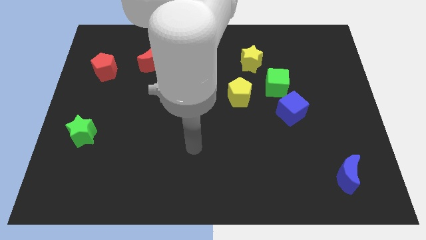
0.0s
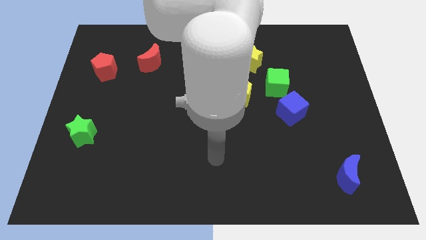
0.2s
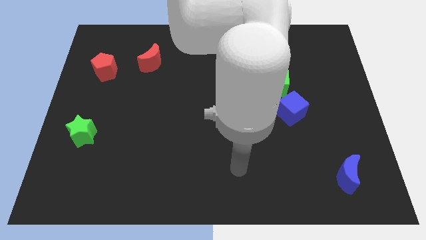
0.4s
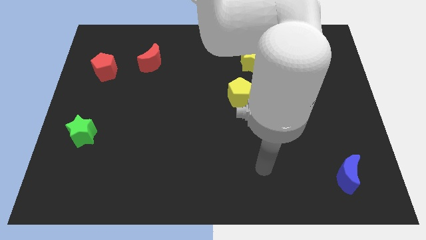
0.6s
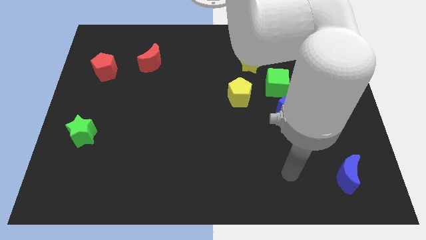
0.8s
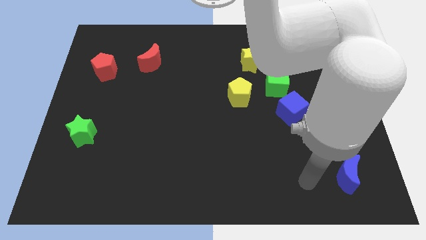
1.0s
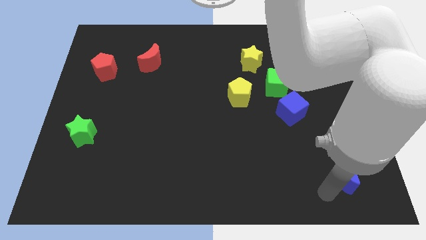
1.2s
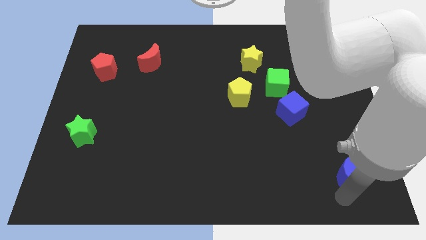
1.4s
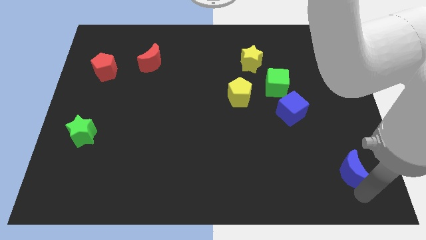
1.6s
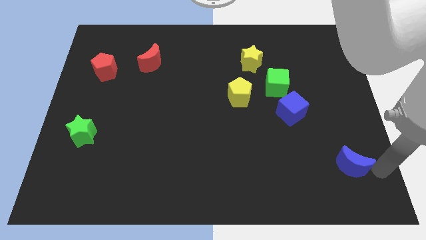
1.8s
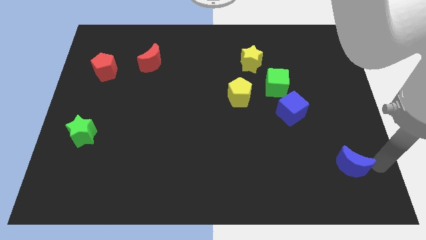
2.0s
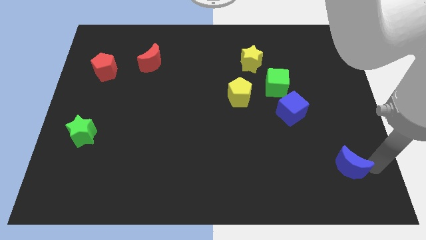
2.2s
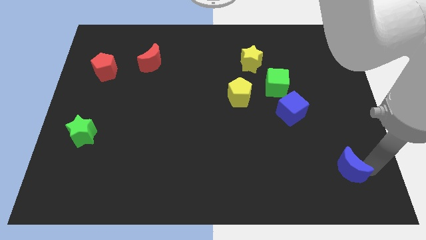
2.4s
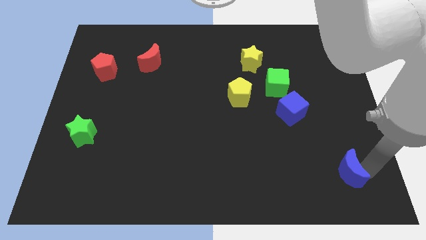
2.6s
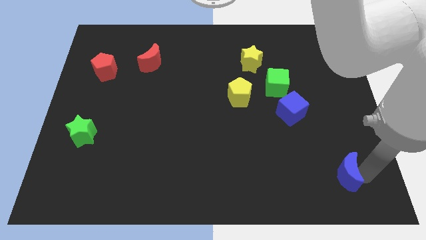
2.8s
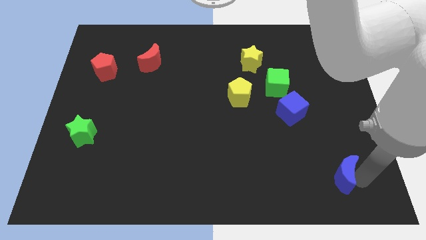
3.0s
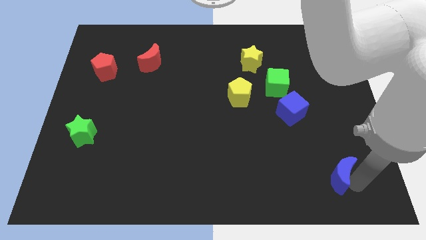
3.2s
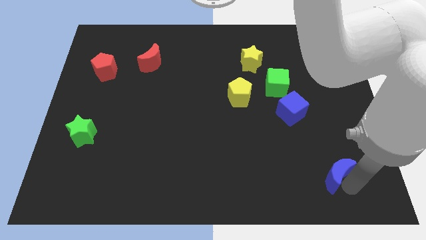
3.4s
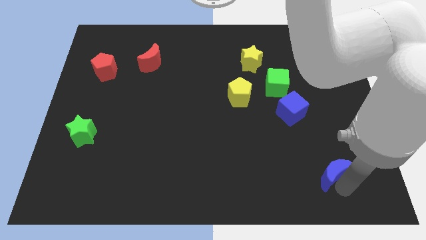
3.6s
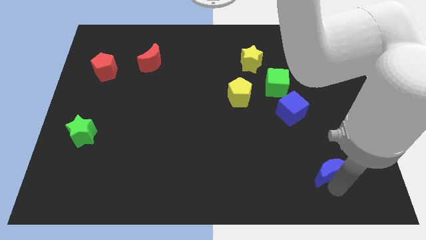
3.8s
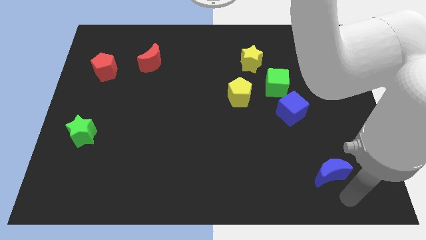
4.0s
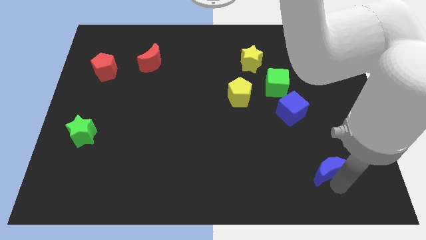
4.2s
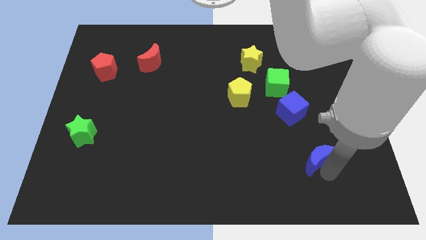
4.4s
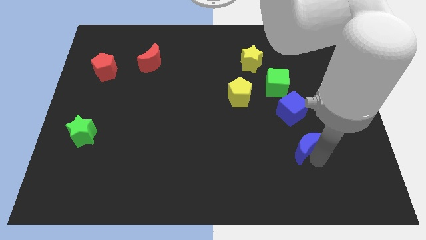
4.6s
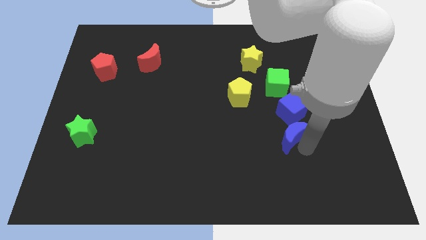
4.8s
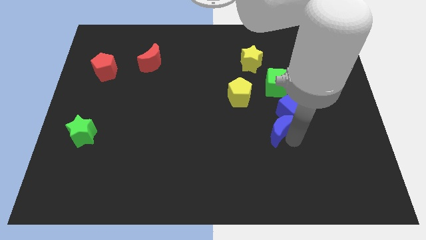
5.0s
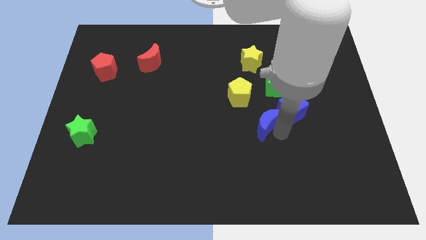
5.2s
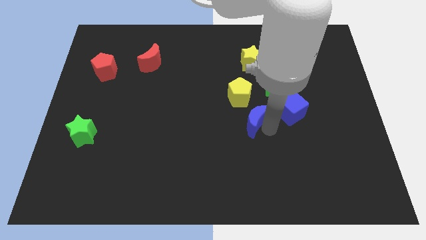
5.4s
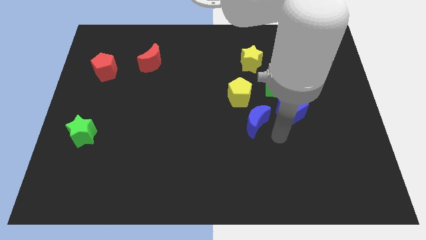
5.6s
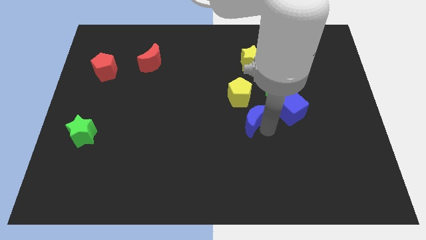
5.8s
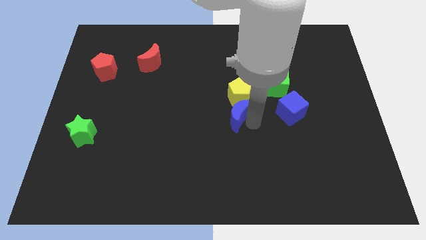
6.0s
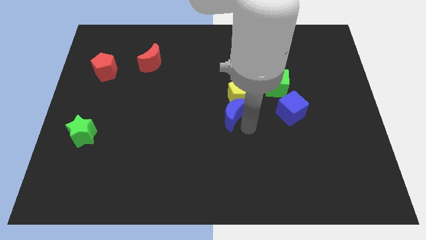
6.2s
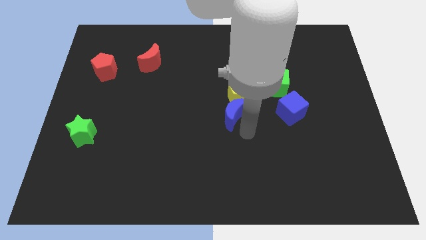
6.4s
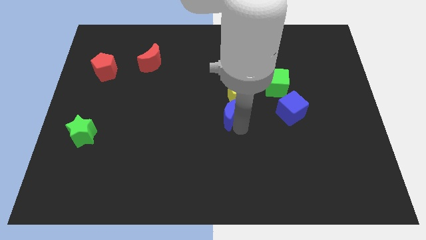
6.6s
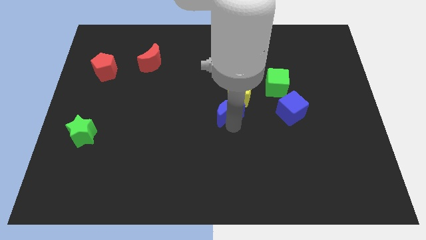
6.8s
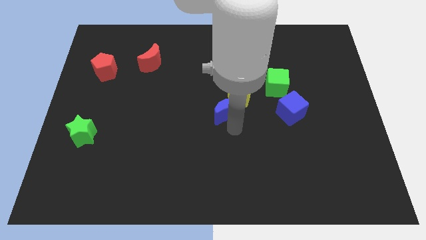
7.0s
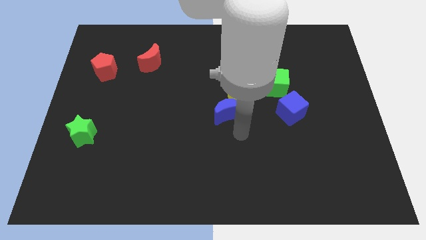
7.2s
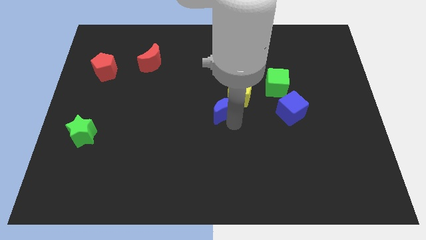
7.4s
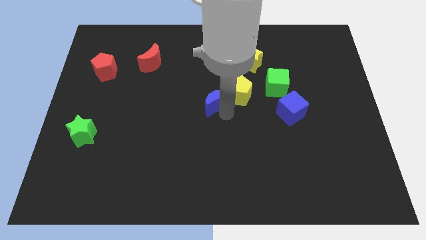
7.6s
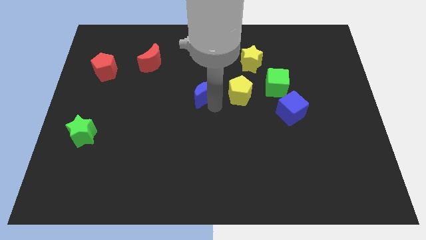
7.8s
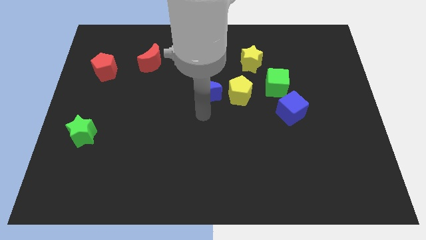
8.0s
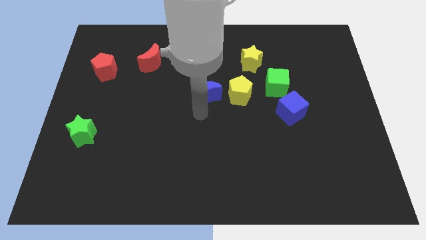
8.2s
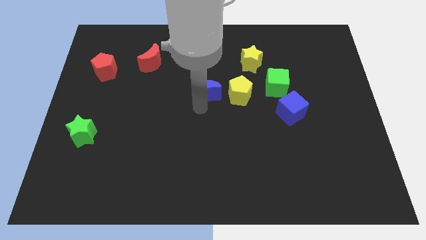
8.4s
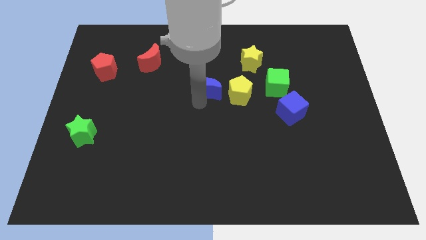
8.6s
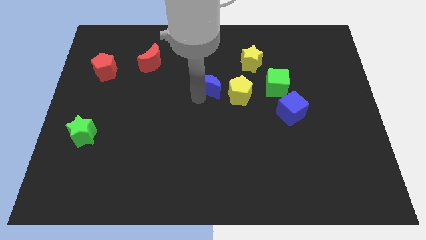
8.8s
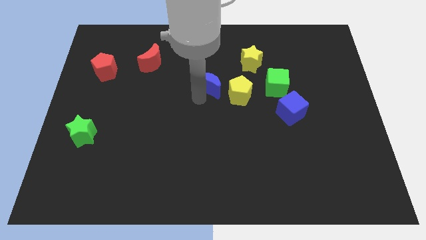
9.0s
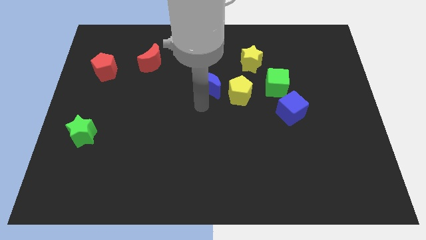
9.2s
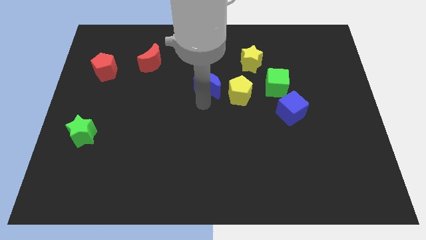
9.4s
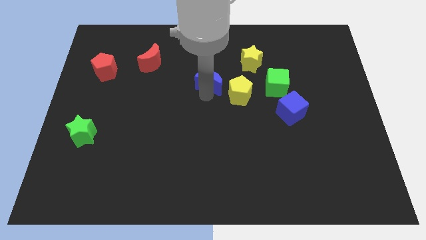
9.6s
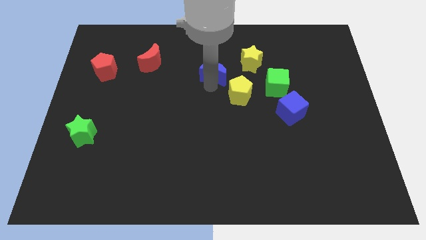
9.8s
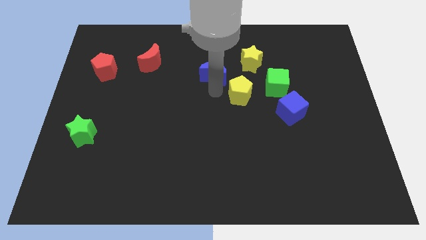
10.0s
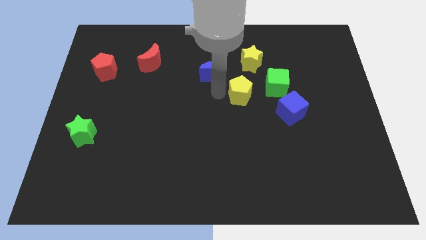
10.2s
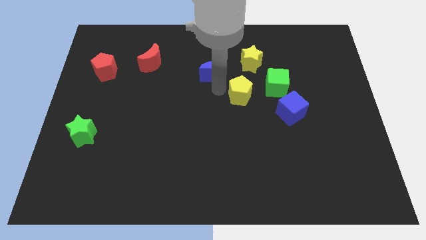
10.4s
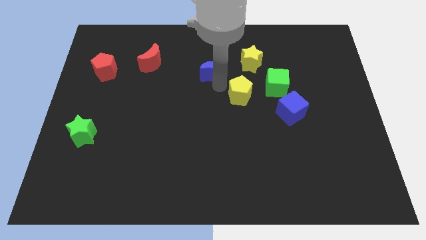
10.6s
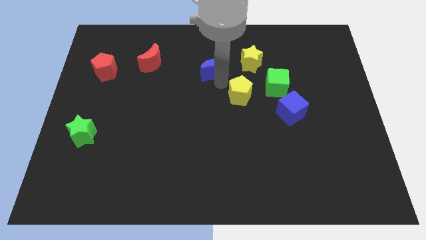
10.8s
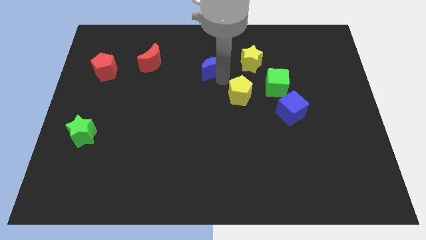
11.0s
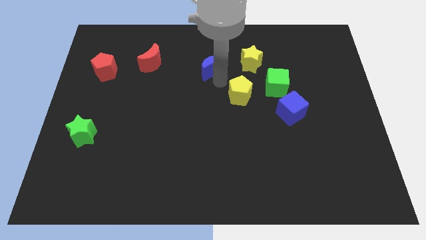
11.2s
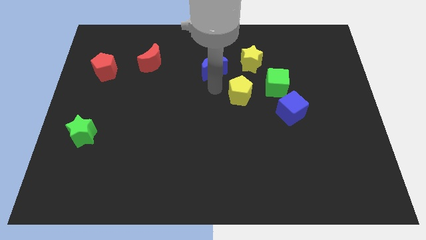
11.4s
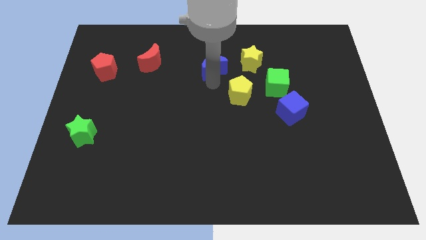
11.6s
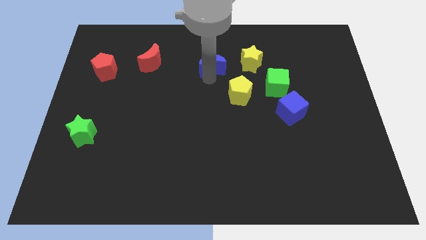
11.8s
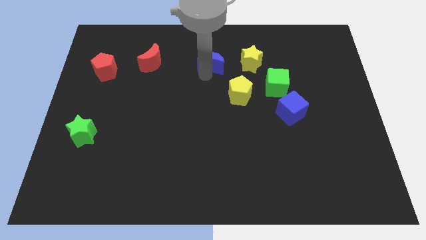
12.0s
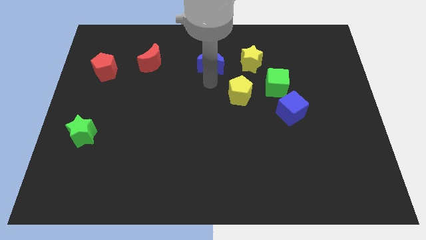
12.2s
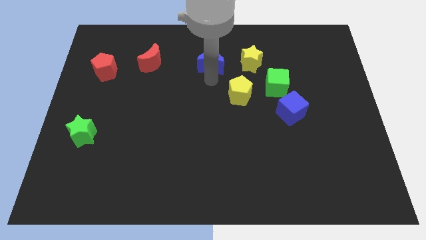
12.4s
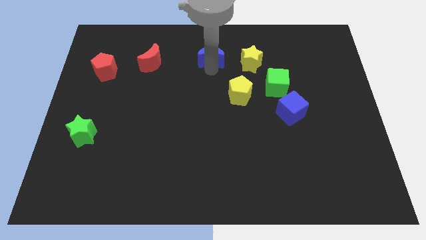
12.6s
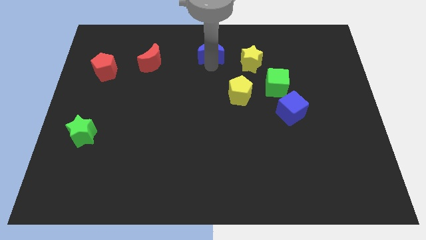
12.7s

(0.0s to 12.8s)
put the blue moon to the top
